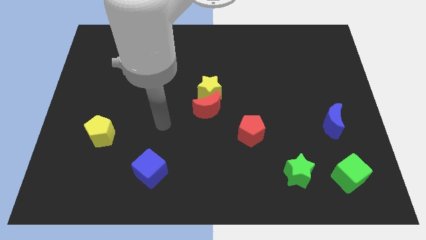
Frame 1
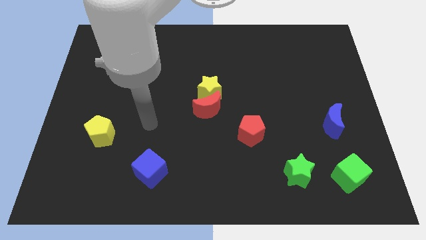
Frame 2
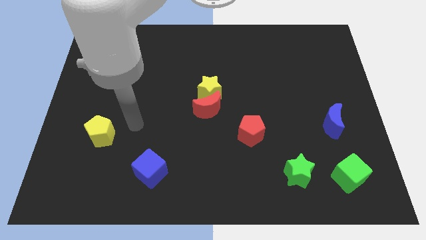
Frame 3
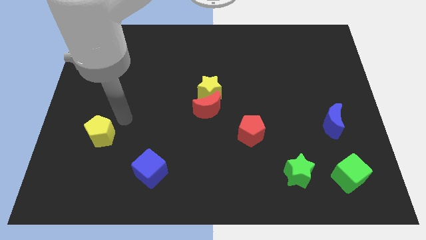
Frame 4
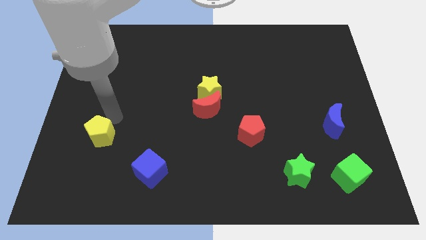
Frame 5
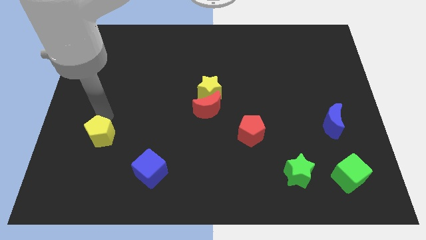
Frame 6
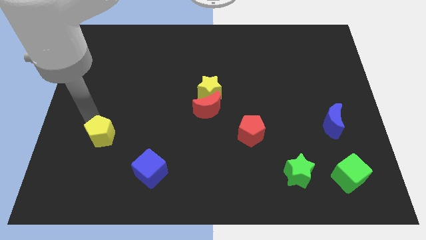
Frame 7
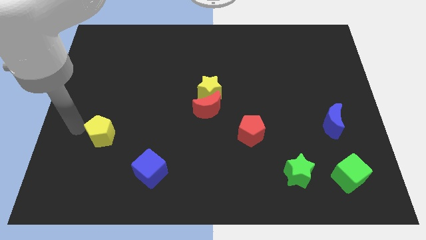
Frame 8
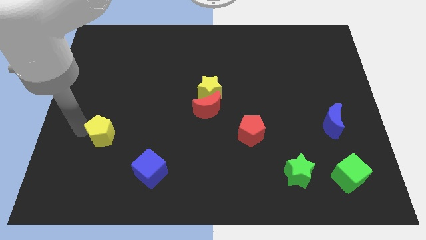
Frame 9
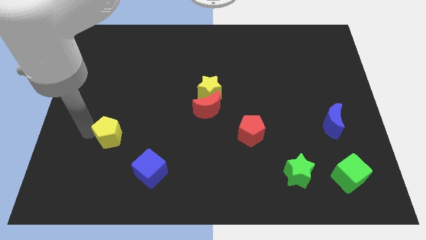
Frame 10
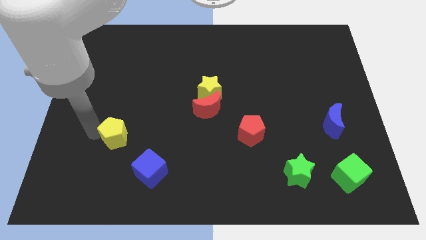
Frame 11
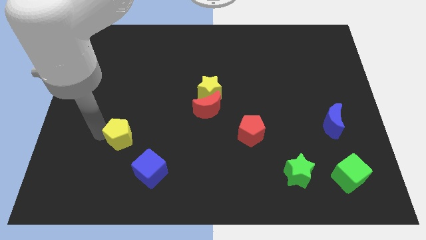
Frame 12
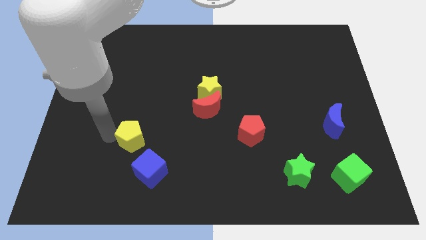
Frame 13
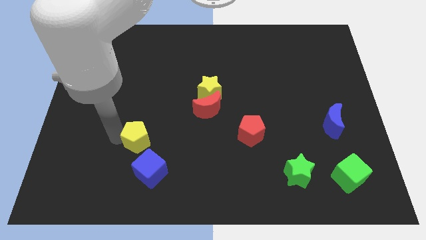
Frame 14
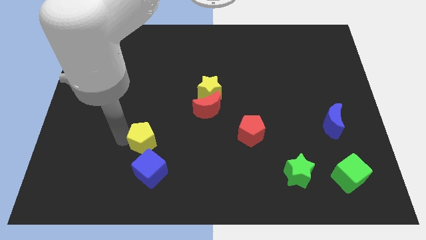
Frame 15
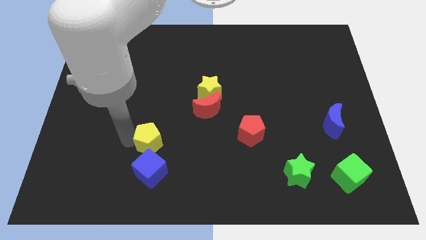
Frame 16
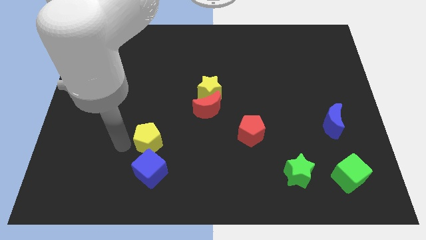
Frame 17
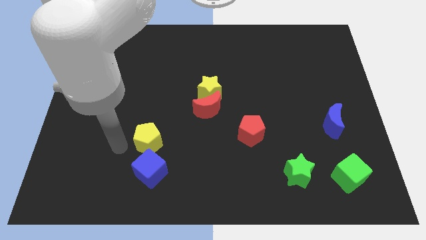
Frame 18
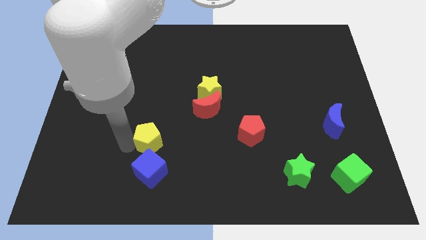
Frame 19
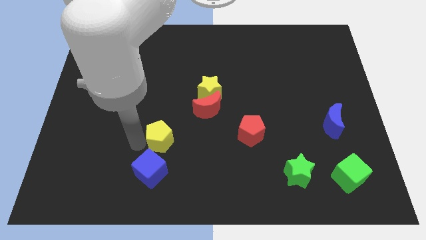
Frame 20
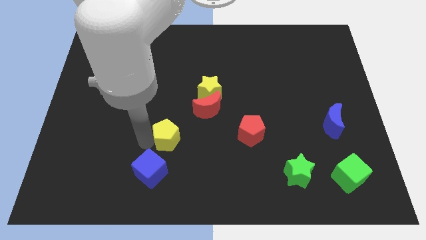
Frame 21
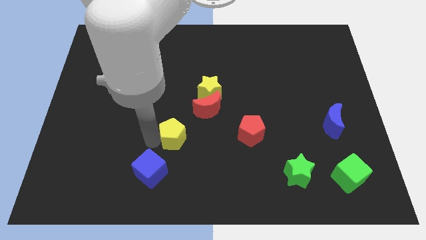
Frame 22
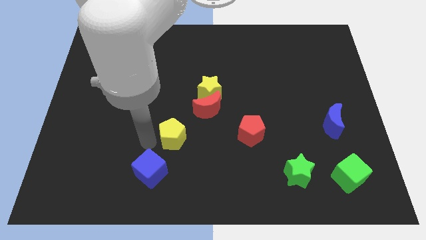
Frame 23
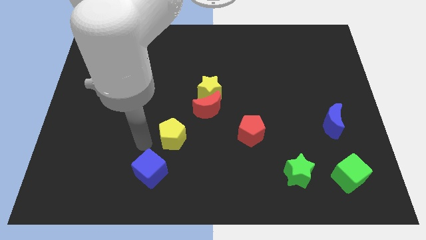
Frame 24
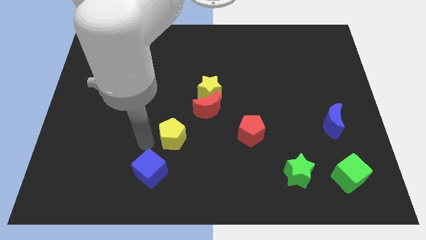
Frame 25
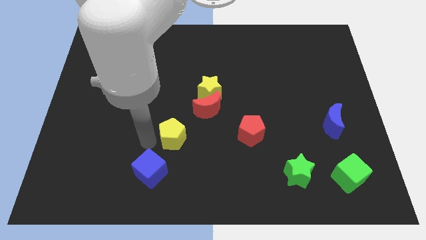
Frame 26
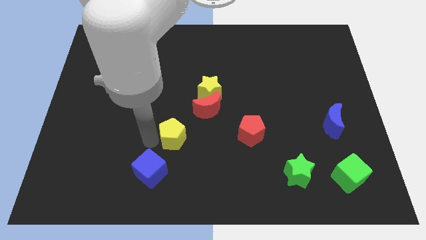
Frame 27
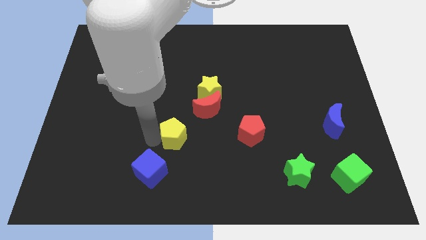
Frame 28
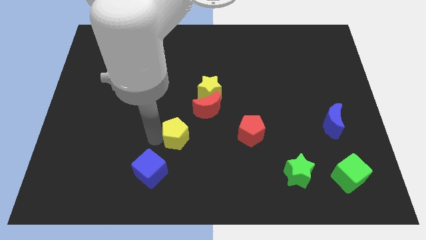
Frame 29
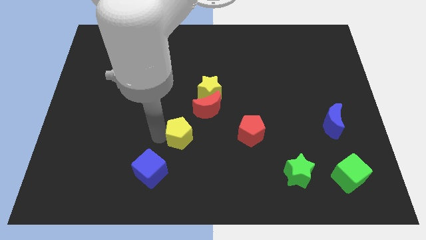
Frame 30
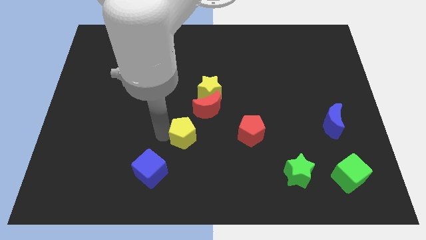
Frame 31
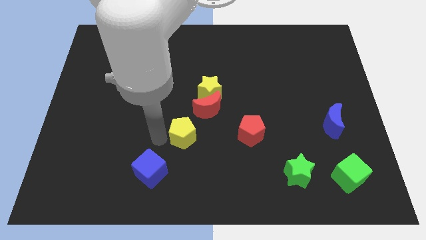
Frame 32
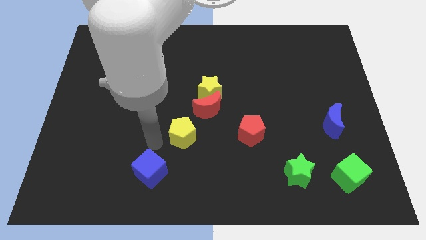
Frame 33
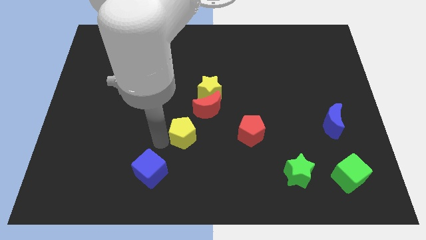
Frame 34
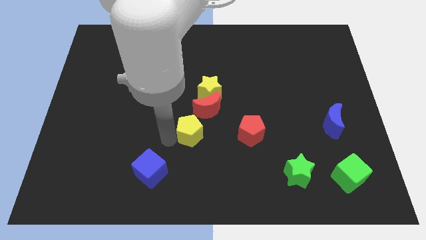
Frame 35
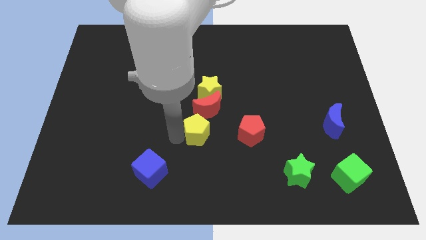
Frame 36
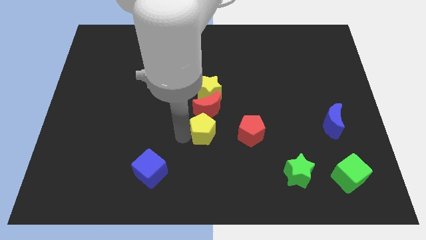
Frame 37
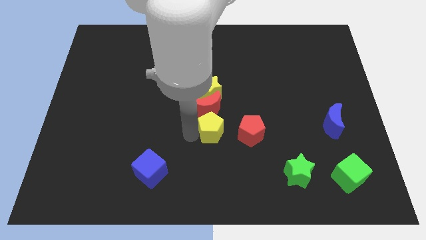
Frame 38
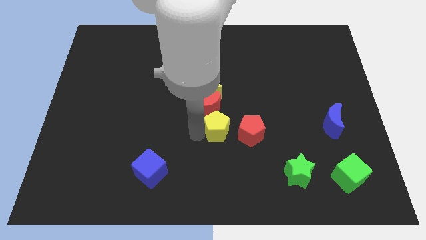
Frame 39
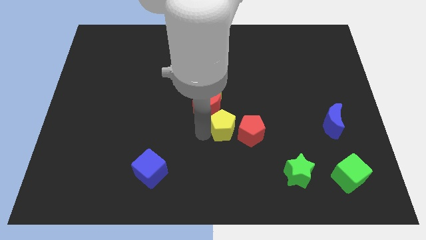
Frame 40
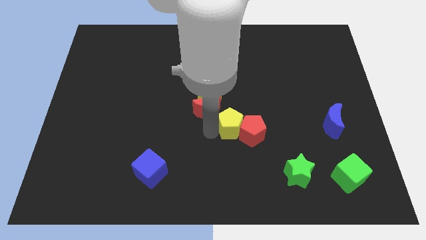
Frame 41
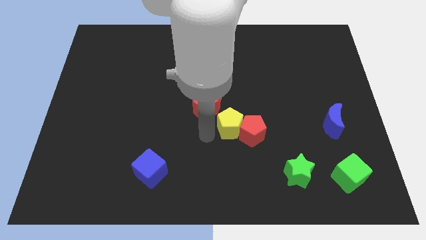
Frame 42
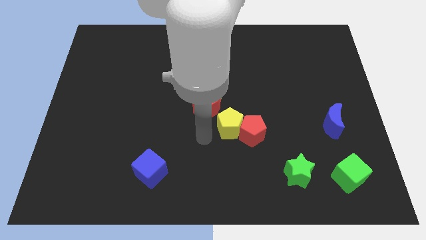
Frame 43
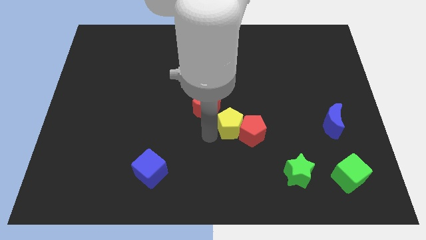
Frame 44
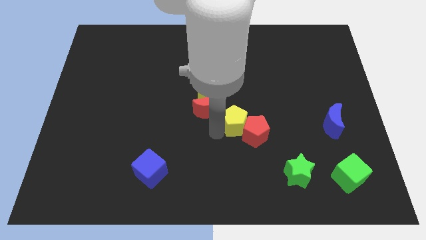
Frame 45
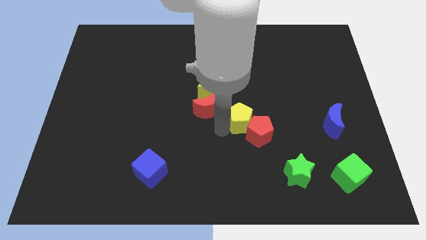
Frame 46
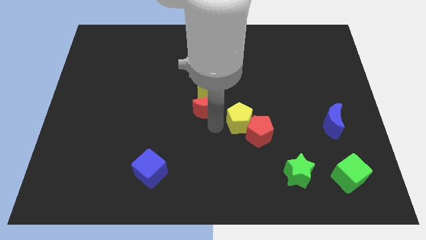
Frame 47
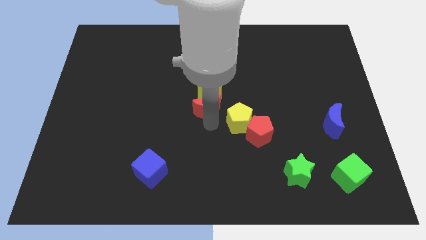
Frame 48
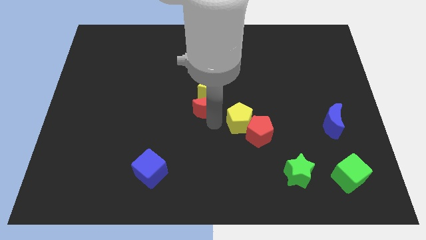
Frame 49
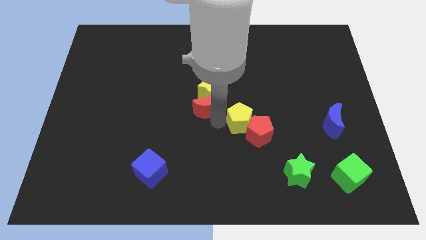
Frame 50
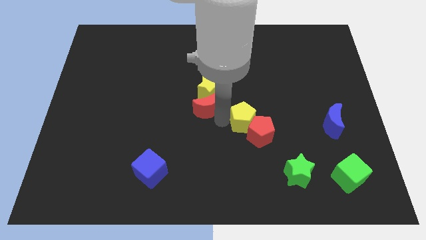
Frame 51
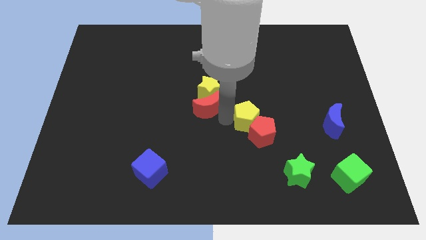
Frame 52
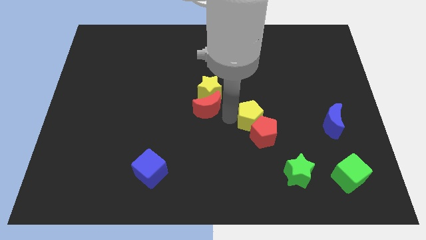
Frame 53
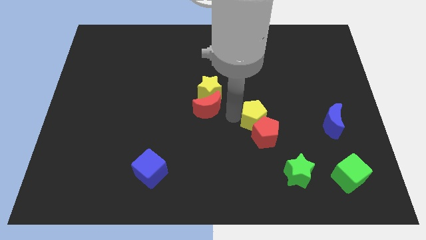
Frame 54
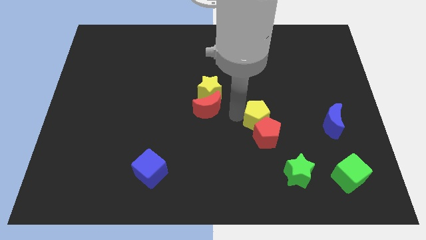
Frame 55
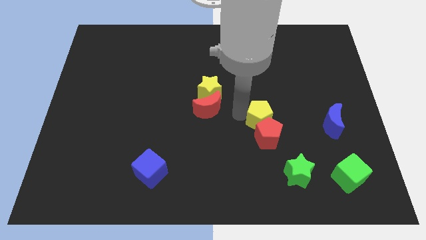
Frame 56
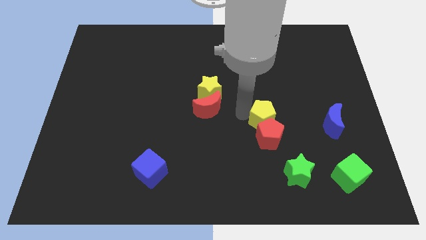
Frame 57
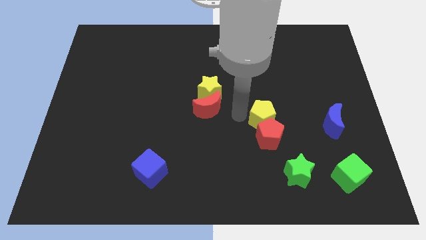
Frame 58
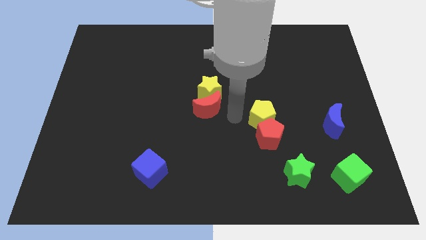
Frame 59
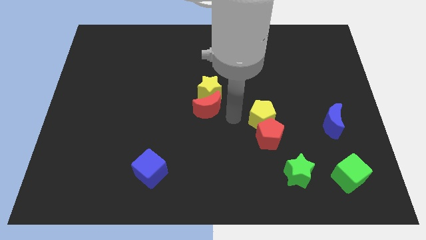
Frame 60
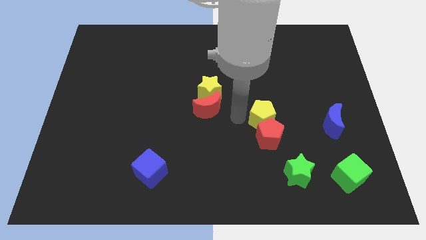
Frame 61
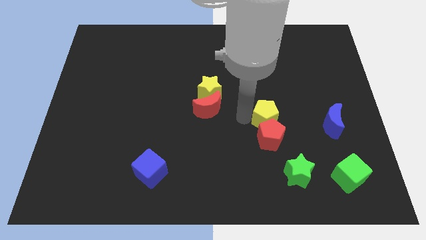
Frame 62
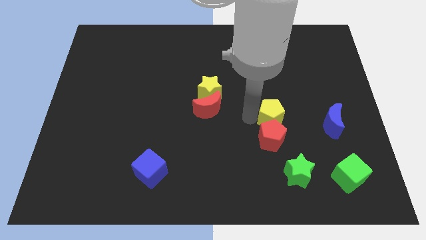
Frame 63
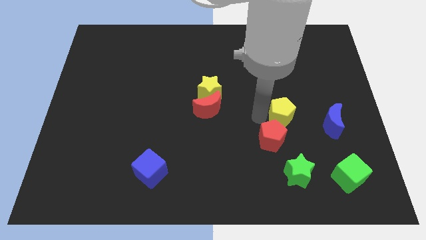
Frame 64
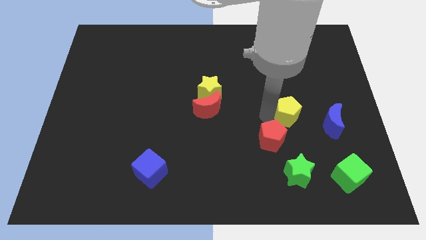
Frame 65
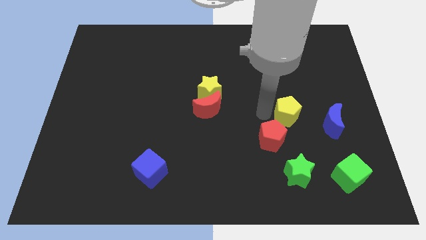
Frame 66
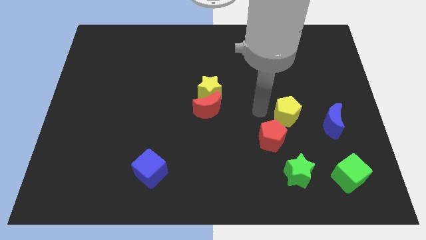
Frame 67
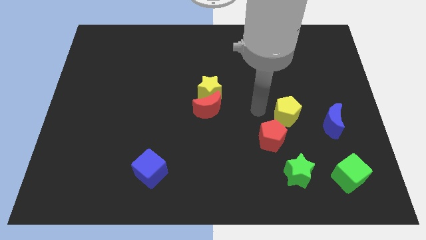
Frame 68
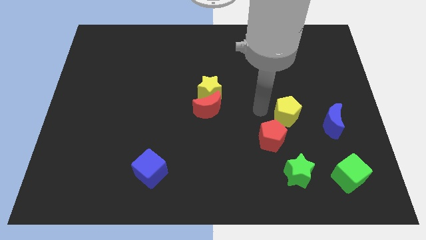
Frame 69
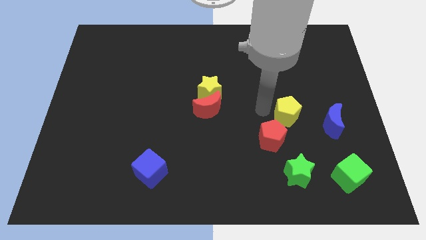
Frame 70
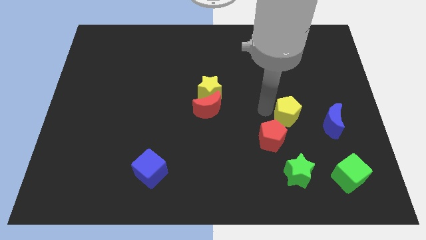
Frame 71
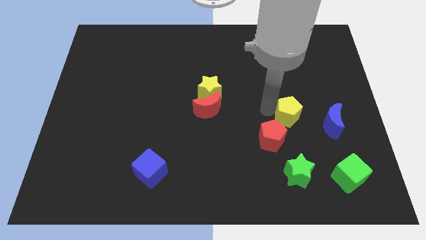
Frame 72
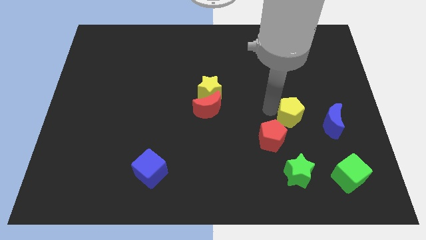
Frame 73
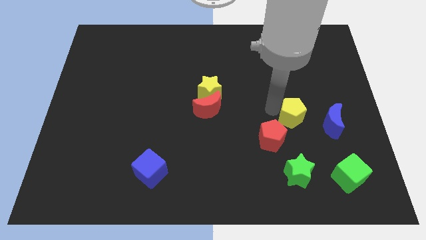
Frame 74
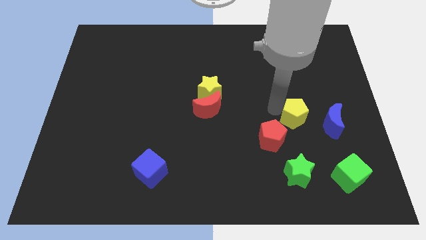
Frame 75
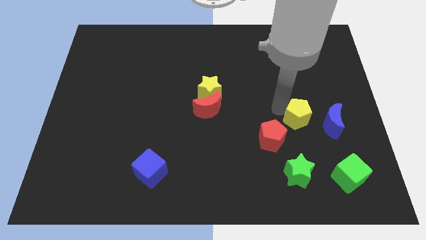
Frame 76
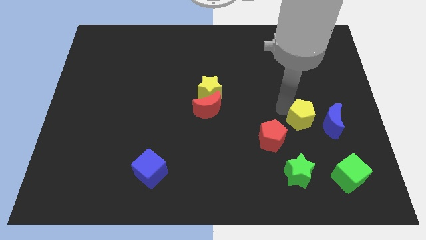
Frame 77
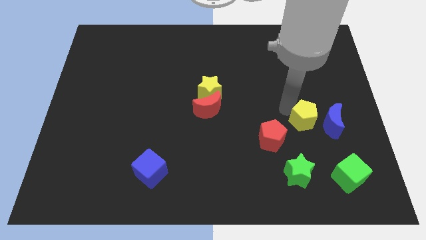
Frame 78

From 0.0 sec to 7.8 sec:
move the yellow pentagon next to the blue moon

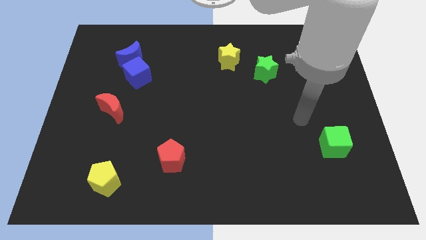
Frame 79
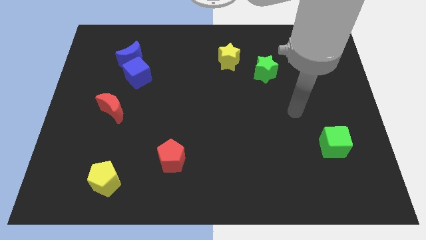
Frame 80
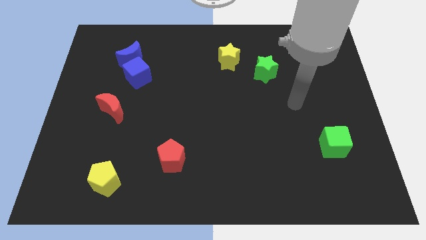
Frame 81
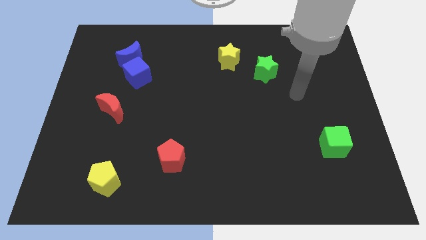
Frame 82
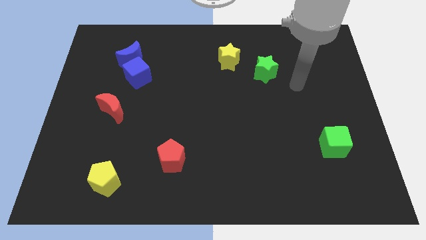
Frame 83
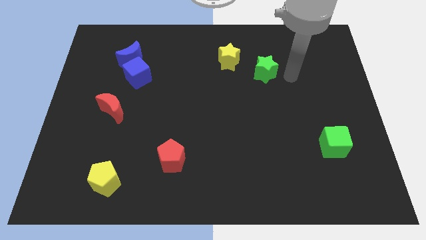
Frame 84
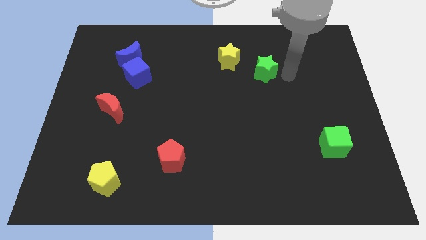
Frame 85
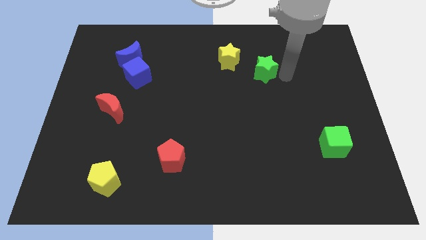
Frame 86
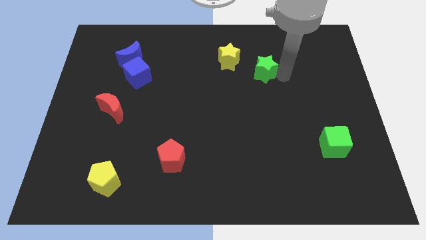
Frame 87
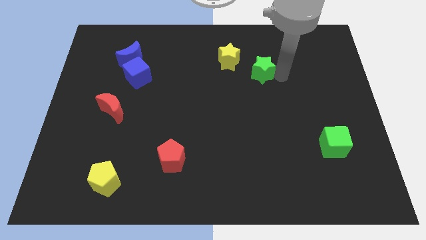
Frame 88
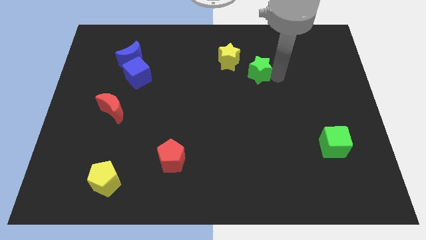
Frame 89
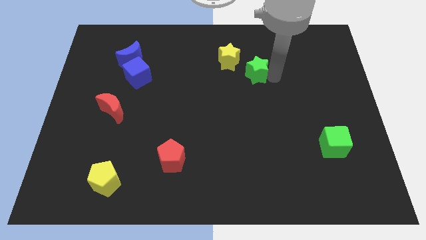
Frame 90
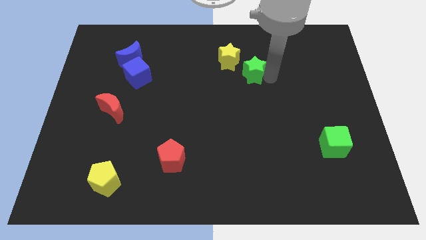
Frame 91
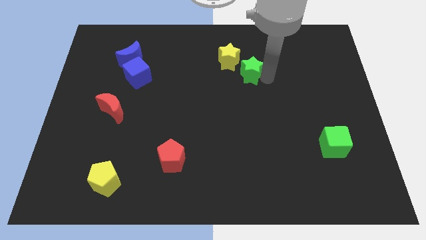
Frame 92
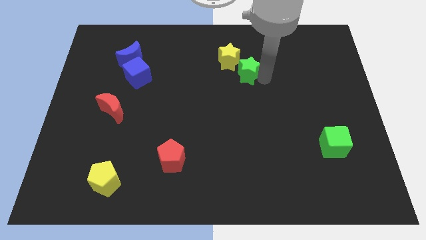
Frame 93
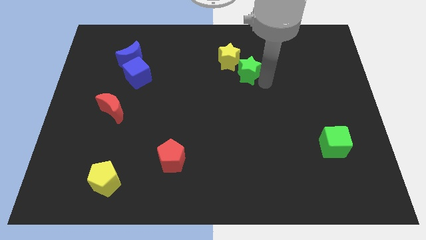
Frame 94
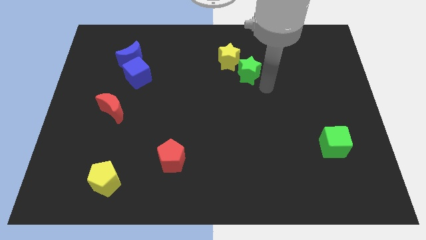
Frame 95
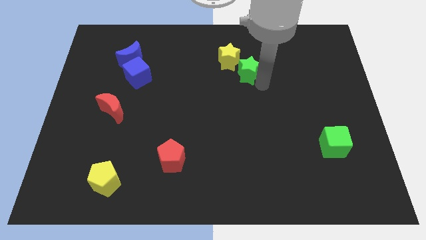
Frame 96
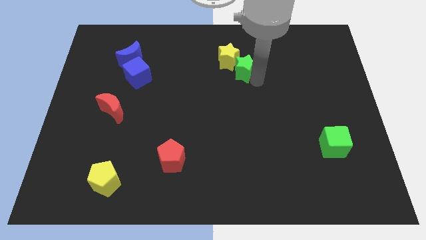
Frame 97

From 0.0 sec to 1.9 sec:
slide the green star next to the yellow star
